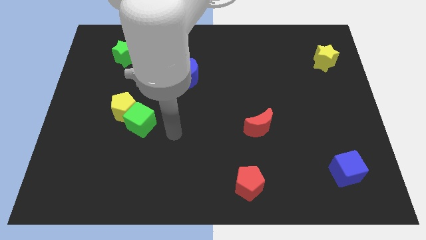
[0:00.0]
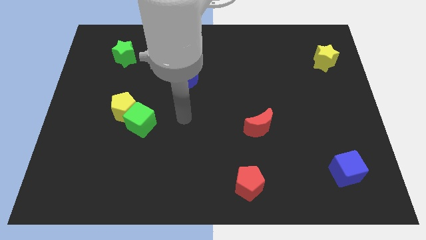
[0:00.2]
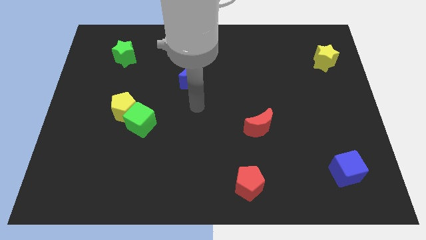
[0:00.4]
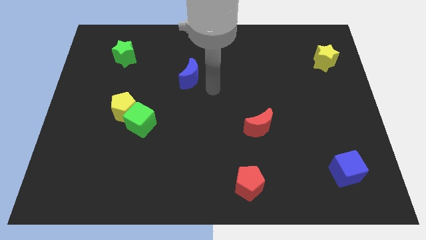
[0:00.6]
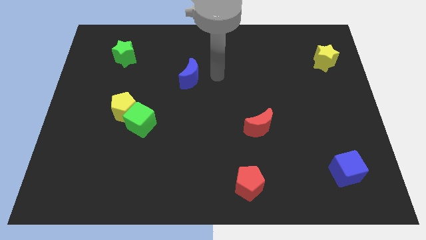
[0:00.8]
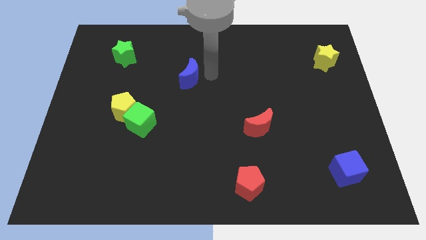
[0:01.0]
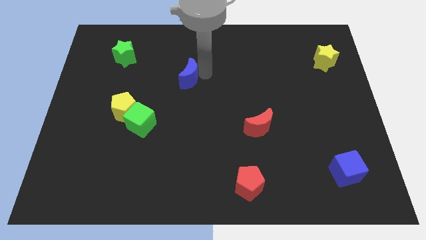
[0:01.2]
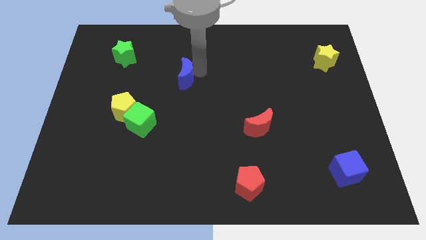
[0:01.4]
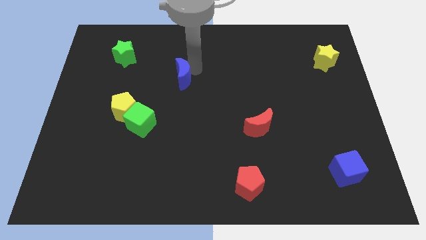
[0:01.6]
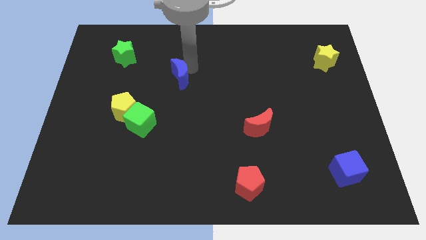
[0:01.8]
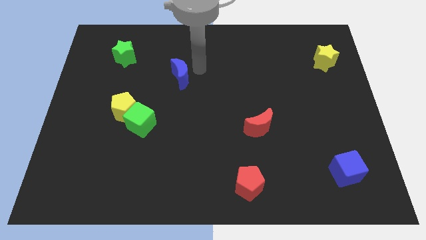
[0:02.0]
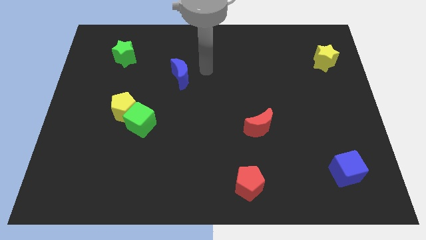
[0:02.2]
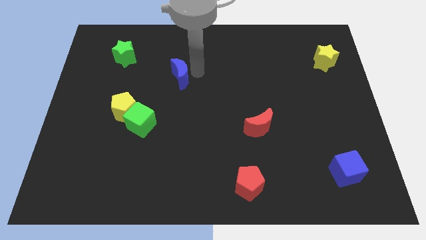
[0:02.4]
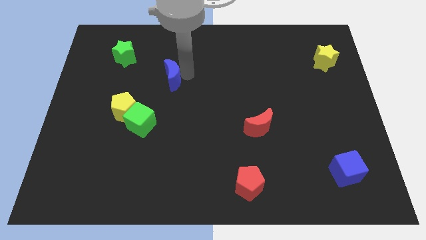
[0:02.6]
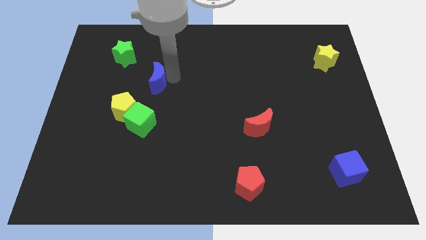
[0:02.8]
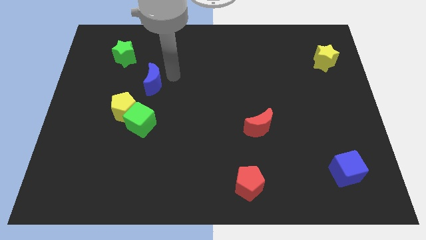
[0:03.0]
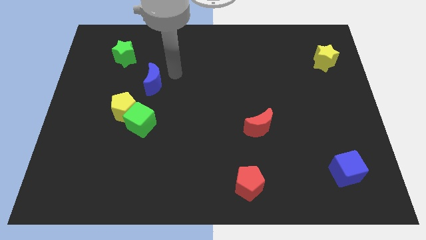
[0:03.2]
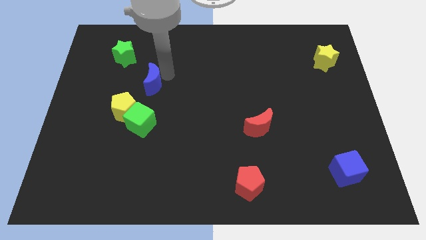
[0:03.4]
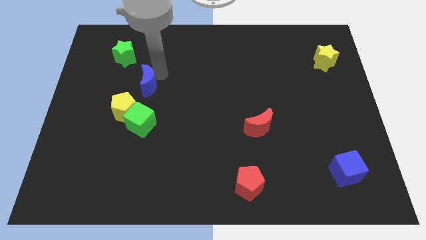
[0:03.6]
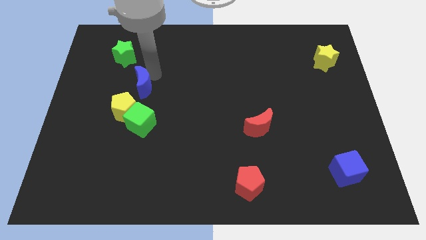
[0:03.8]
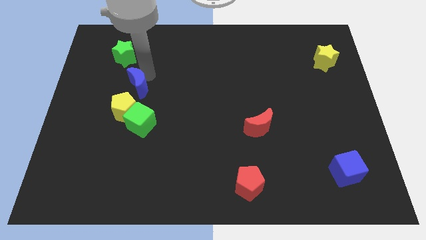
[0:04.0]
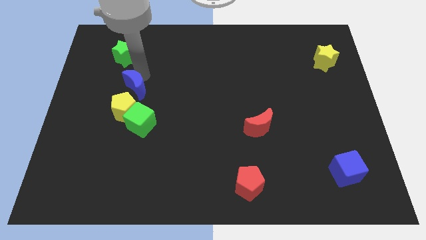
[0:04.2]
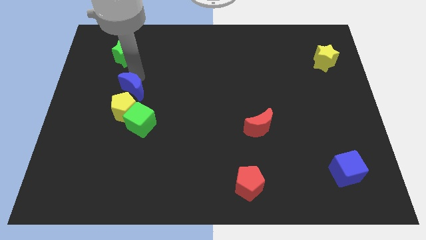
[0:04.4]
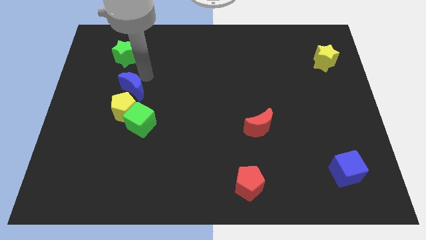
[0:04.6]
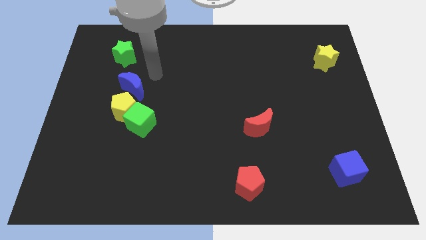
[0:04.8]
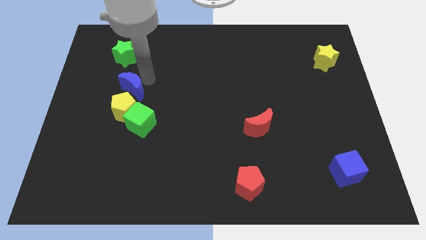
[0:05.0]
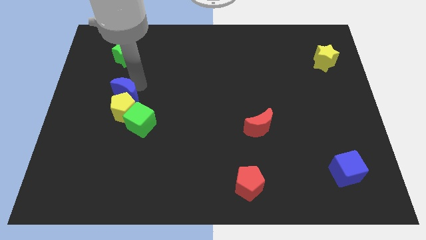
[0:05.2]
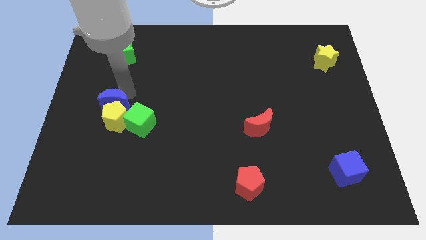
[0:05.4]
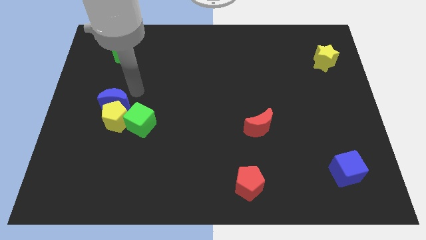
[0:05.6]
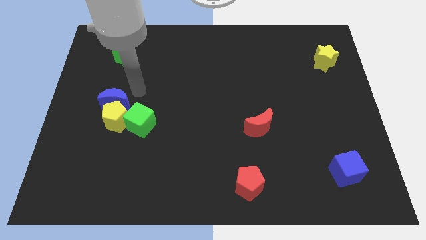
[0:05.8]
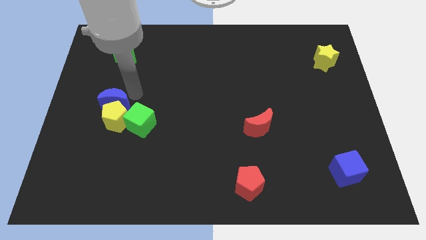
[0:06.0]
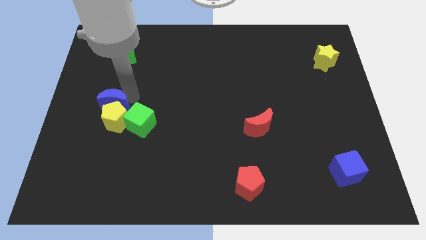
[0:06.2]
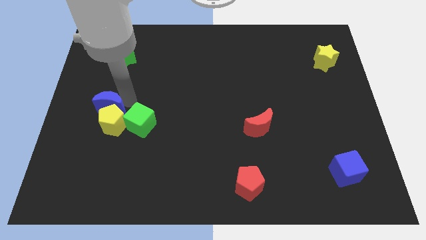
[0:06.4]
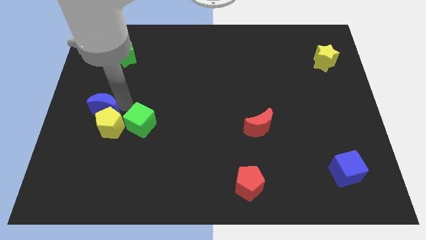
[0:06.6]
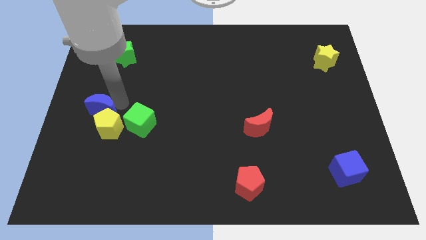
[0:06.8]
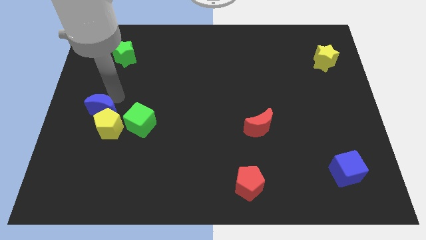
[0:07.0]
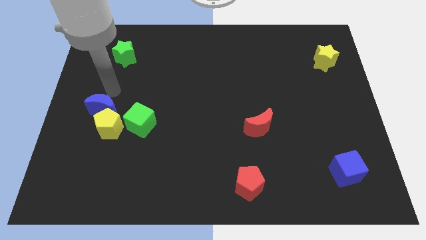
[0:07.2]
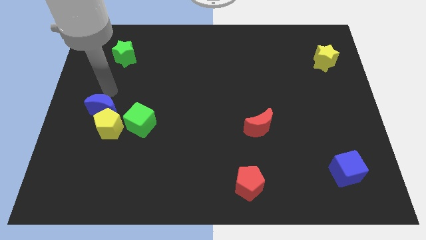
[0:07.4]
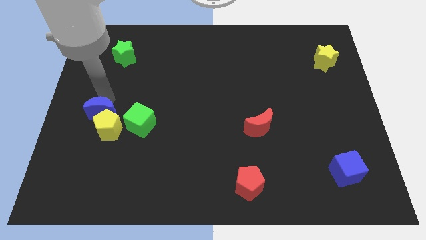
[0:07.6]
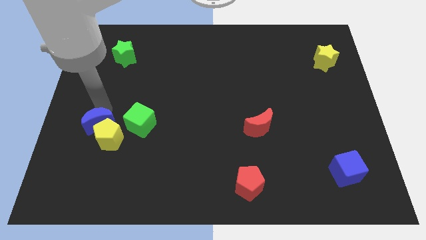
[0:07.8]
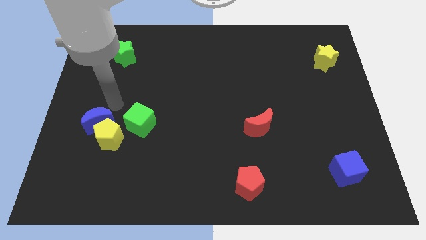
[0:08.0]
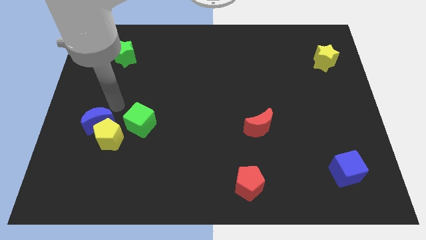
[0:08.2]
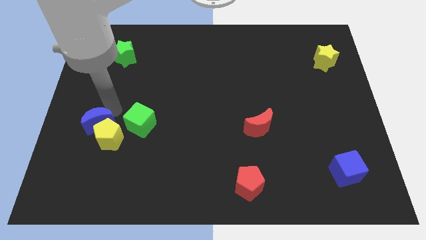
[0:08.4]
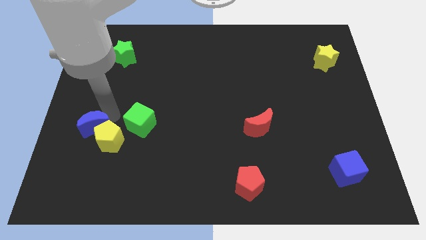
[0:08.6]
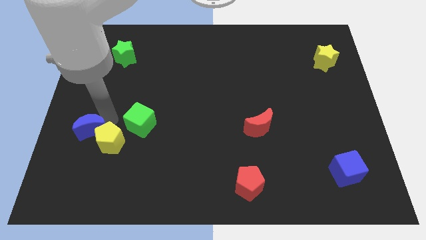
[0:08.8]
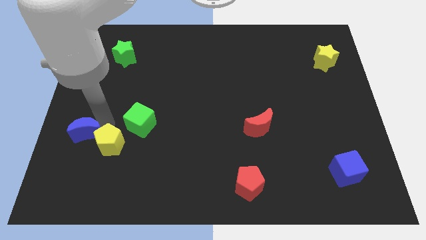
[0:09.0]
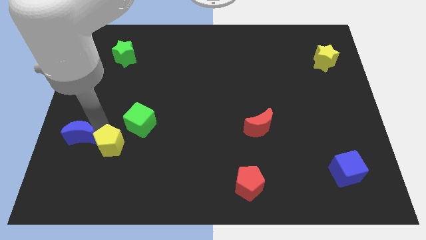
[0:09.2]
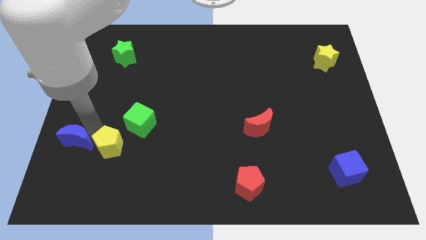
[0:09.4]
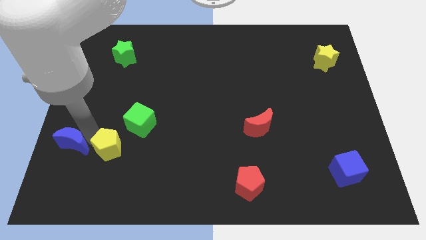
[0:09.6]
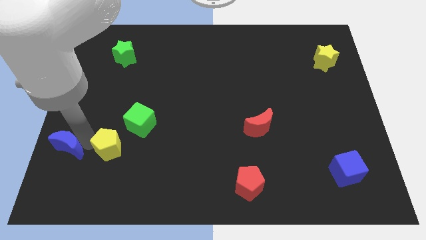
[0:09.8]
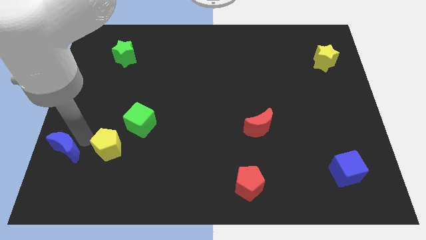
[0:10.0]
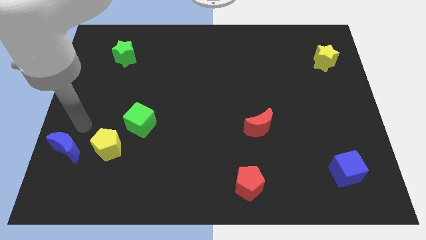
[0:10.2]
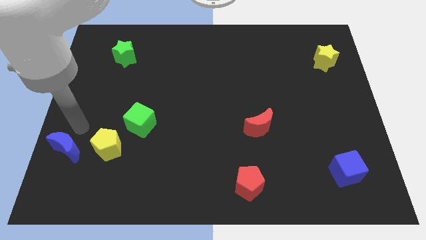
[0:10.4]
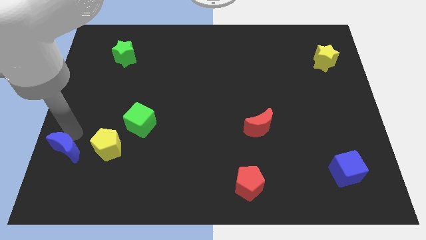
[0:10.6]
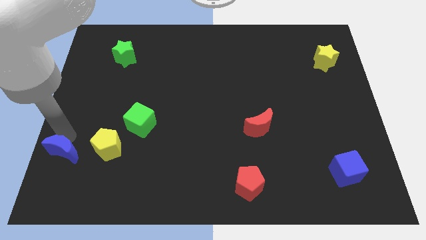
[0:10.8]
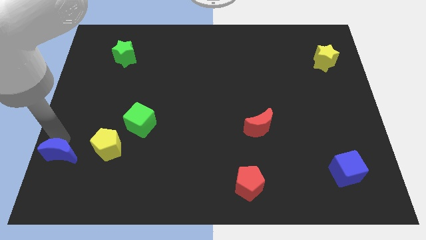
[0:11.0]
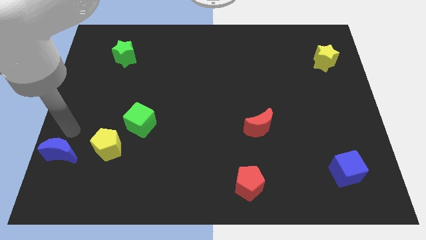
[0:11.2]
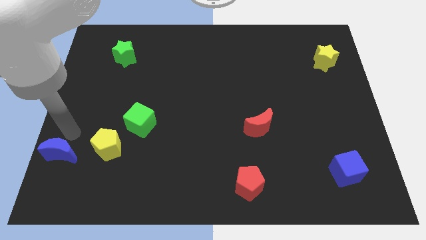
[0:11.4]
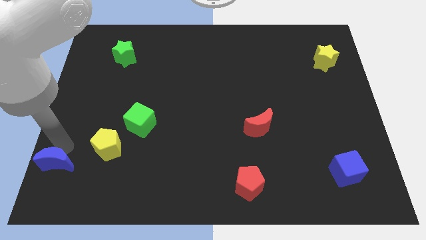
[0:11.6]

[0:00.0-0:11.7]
push the blue moon to the bottom left
